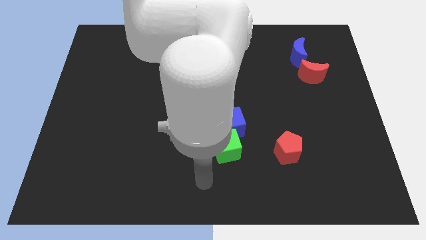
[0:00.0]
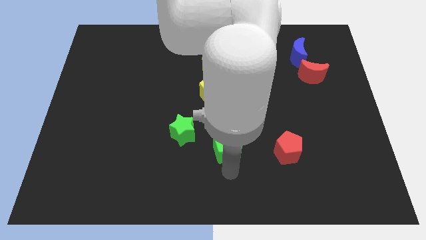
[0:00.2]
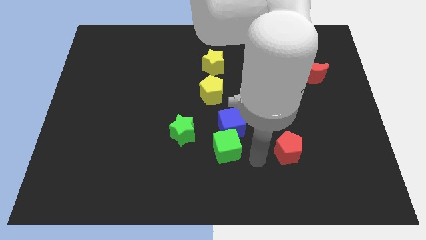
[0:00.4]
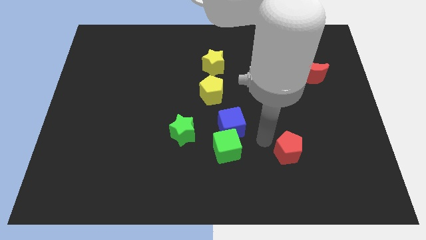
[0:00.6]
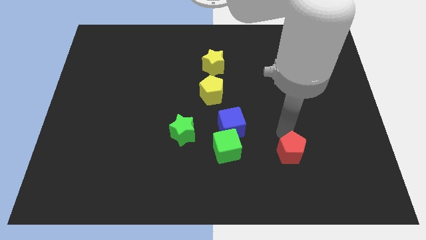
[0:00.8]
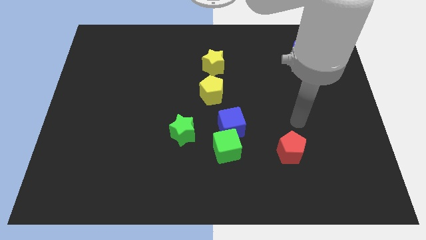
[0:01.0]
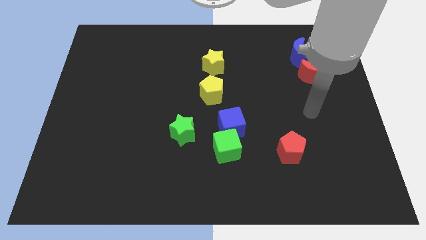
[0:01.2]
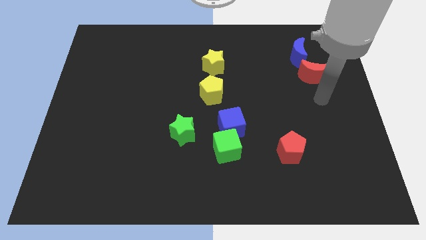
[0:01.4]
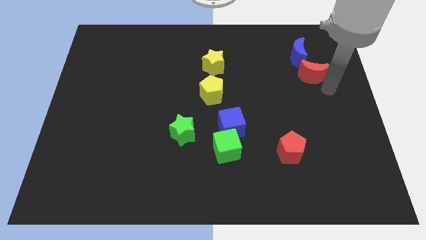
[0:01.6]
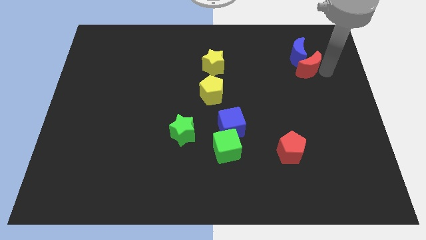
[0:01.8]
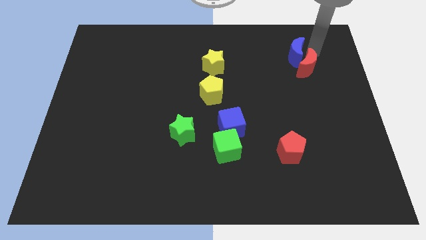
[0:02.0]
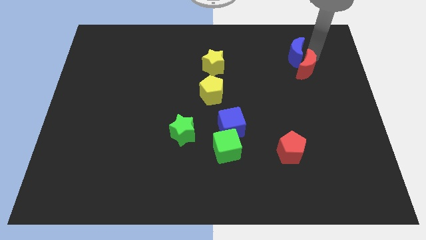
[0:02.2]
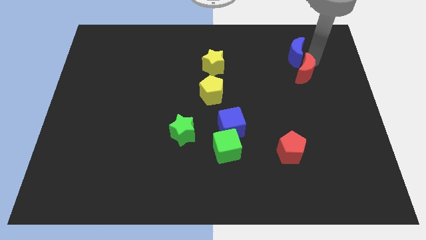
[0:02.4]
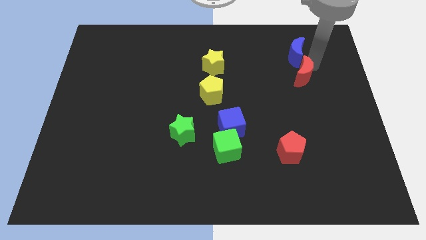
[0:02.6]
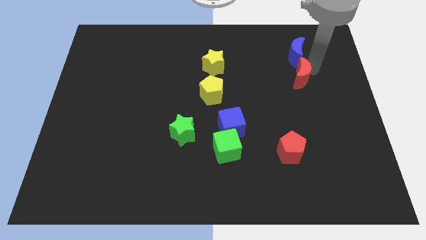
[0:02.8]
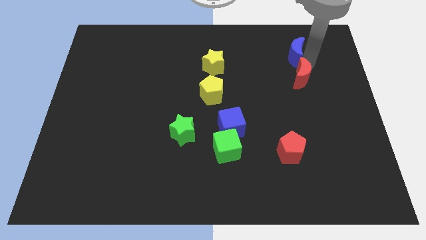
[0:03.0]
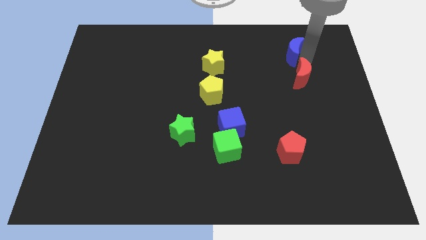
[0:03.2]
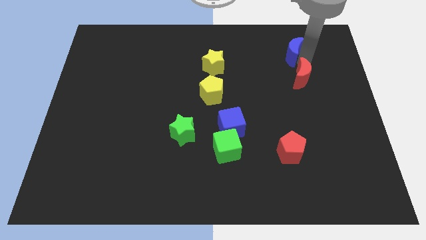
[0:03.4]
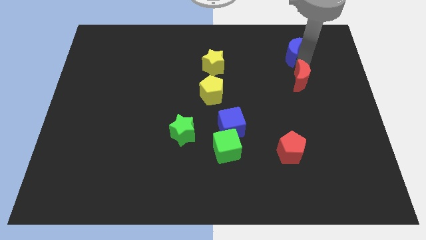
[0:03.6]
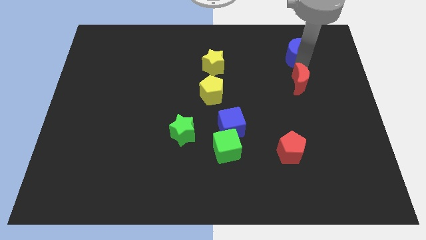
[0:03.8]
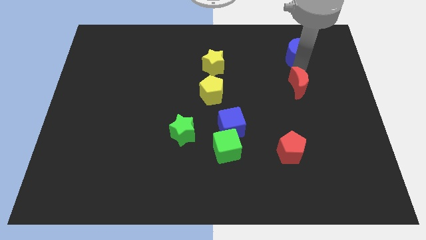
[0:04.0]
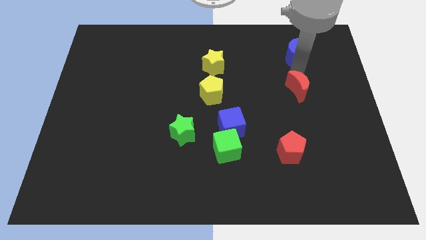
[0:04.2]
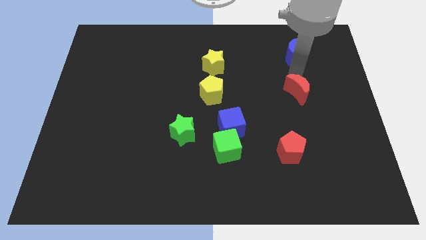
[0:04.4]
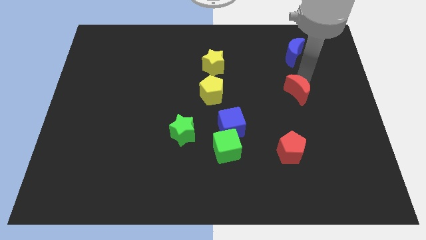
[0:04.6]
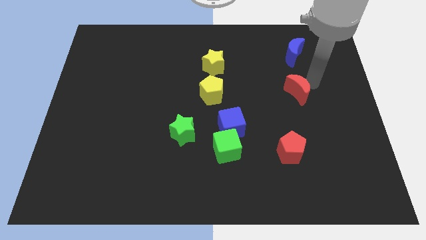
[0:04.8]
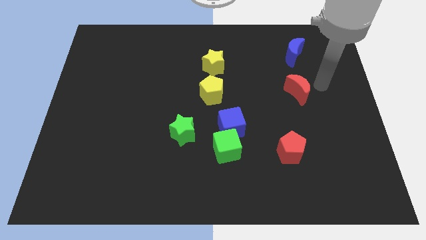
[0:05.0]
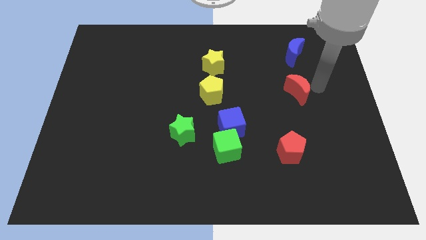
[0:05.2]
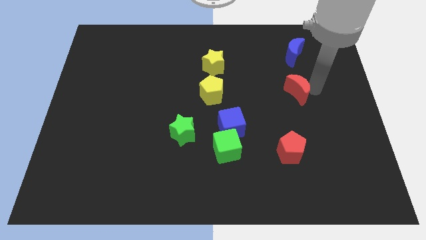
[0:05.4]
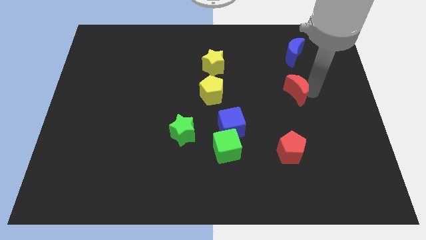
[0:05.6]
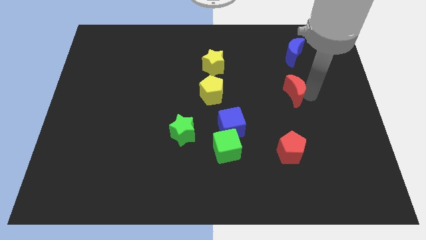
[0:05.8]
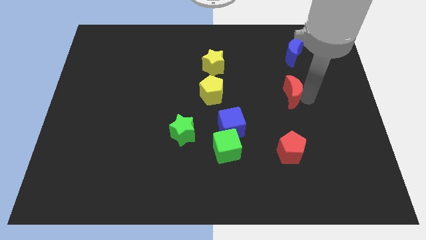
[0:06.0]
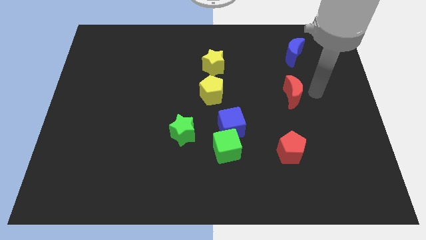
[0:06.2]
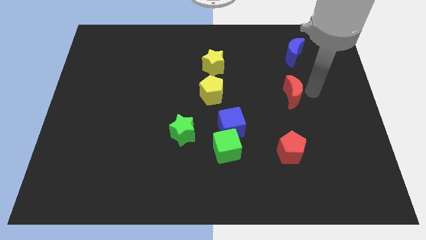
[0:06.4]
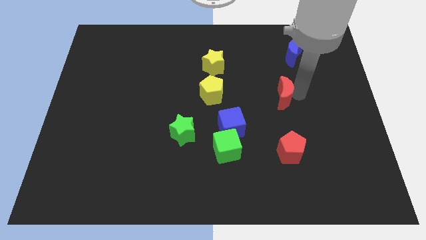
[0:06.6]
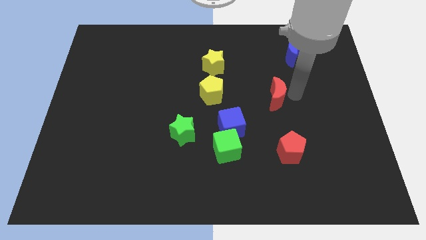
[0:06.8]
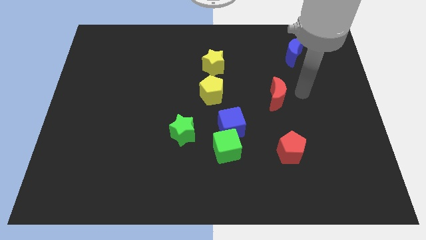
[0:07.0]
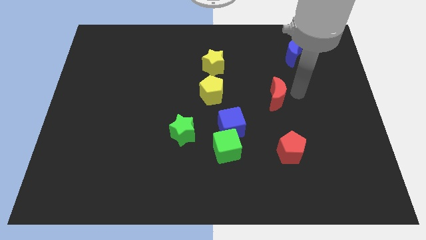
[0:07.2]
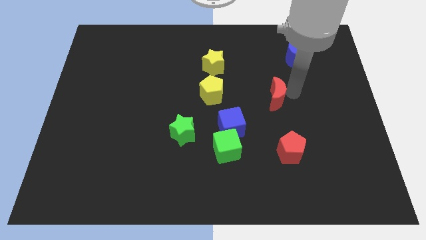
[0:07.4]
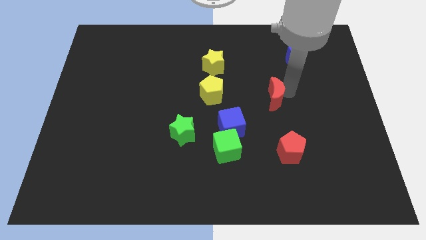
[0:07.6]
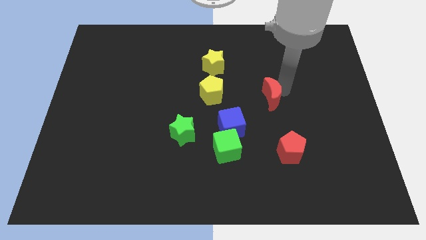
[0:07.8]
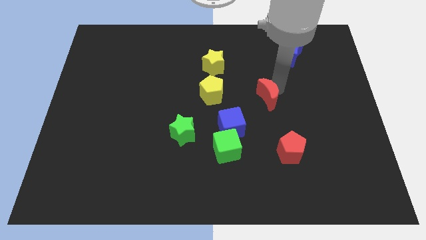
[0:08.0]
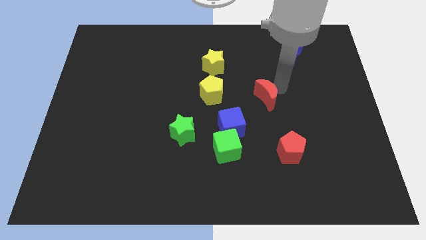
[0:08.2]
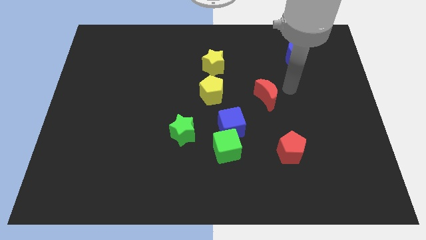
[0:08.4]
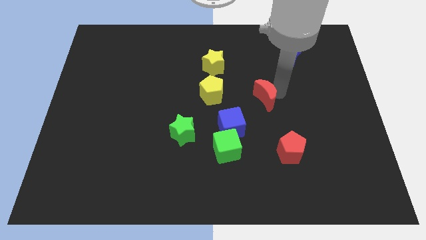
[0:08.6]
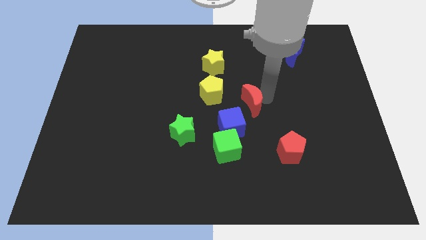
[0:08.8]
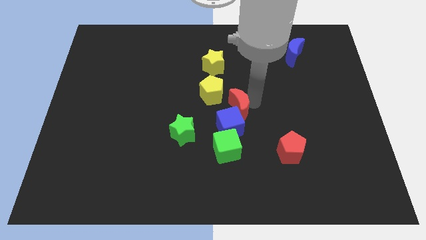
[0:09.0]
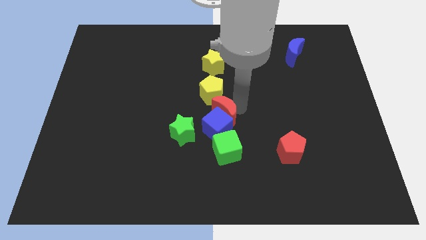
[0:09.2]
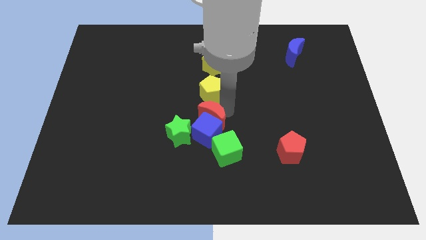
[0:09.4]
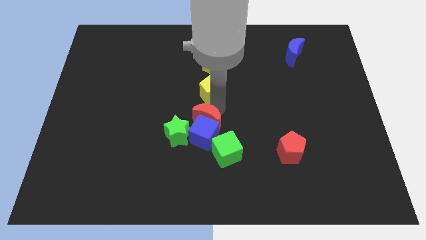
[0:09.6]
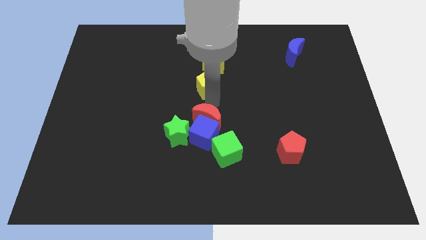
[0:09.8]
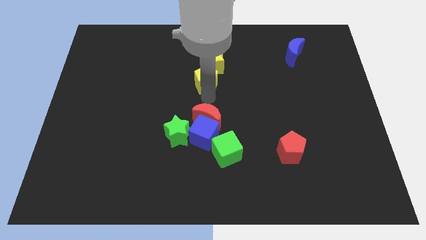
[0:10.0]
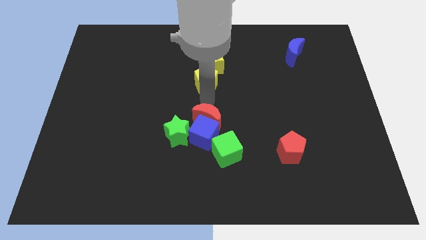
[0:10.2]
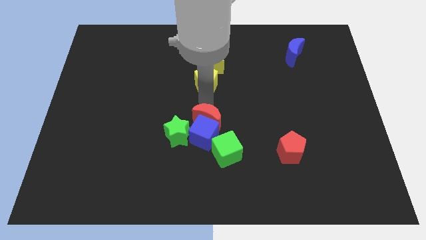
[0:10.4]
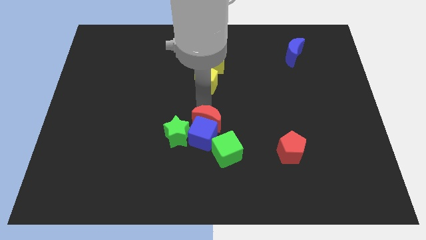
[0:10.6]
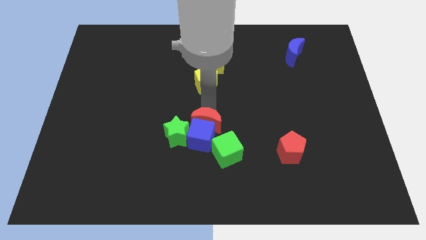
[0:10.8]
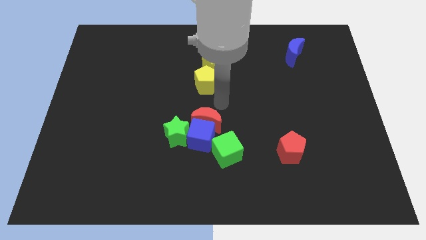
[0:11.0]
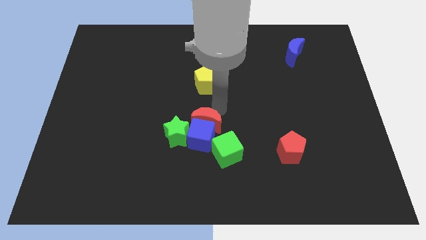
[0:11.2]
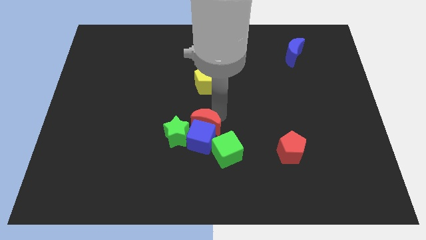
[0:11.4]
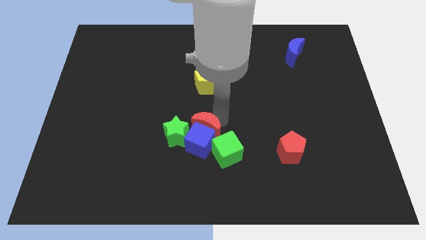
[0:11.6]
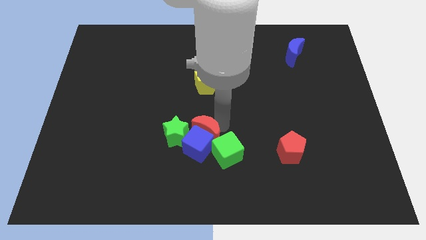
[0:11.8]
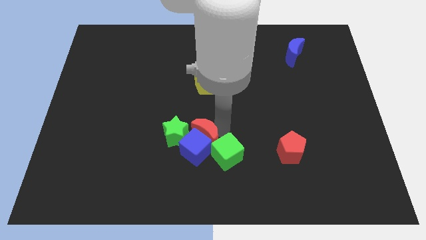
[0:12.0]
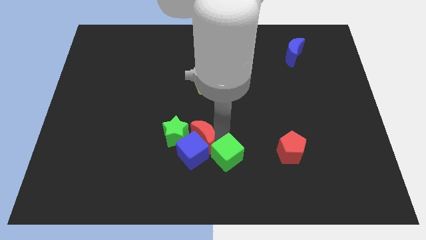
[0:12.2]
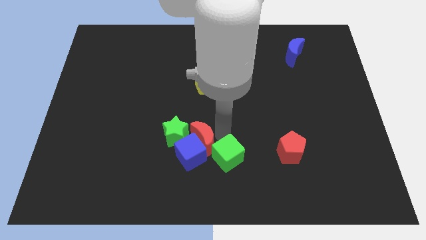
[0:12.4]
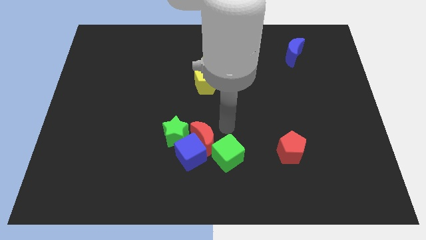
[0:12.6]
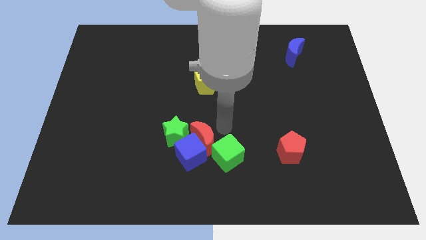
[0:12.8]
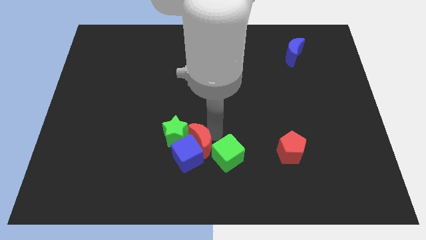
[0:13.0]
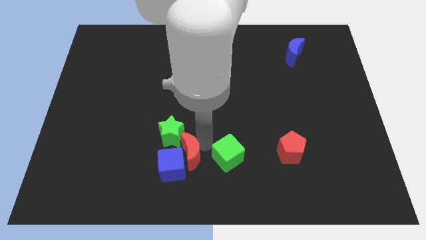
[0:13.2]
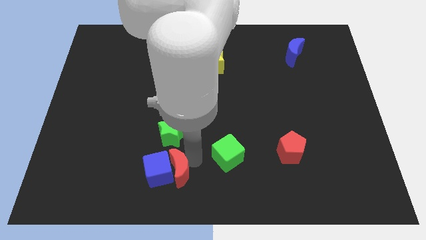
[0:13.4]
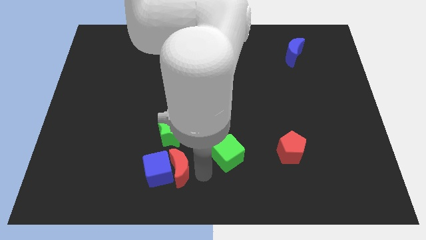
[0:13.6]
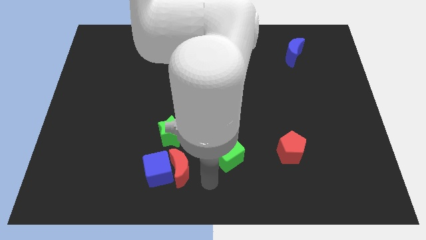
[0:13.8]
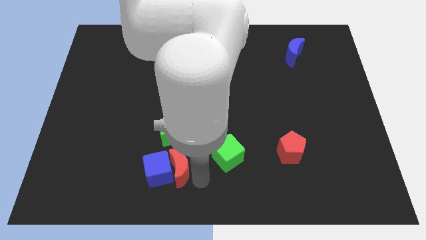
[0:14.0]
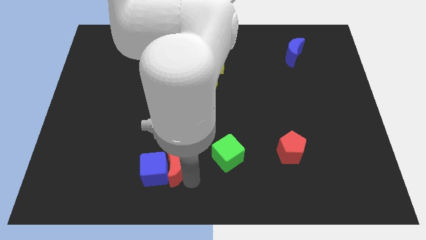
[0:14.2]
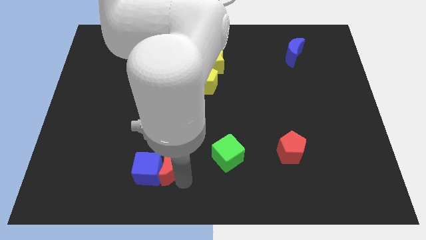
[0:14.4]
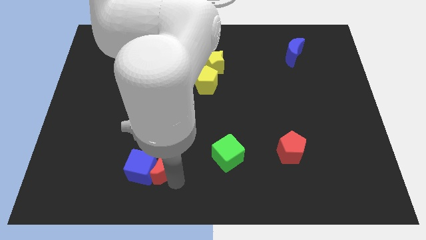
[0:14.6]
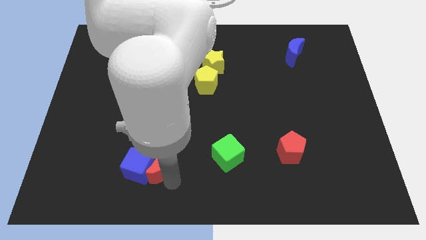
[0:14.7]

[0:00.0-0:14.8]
move the red moon to the bottom left of the green star
